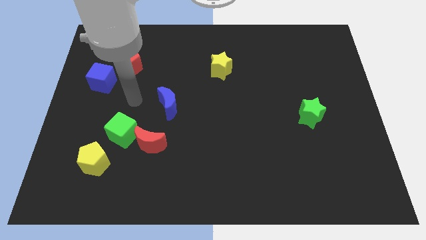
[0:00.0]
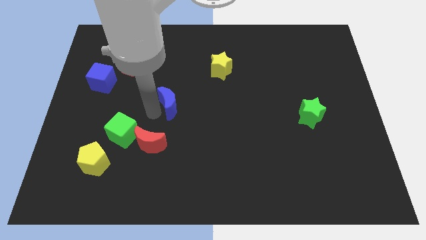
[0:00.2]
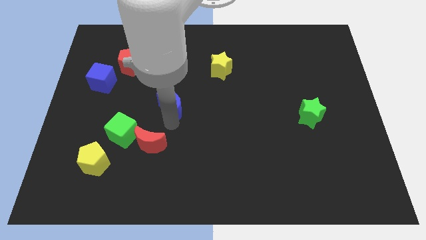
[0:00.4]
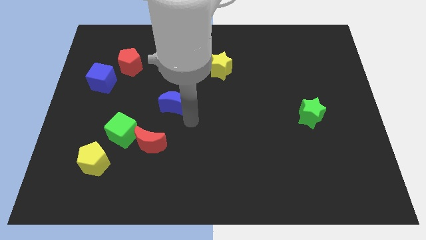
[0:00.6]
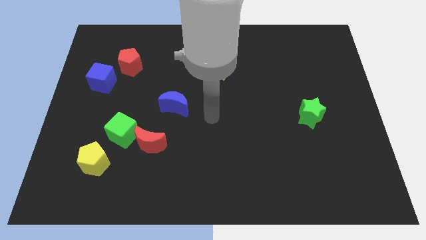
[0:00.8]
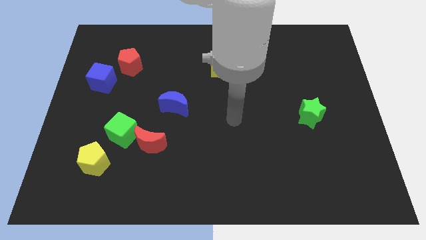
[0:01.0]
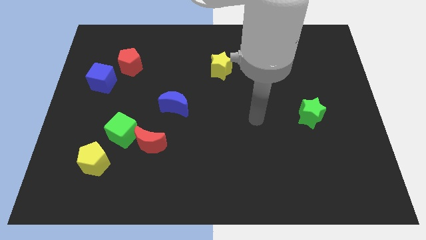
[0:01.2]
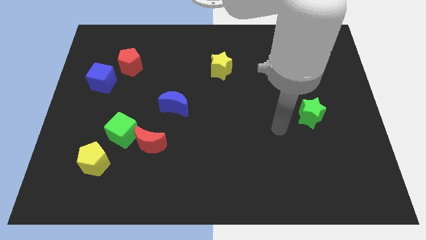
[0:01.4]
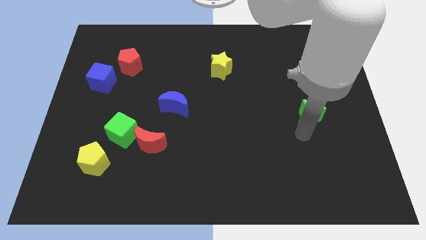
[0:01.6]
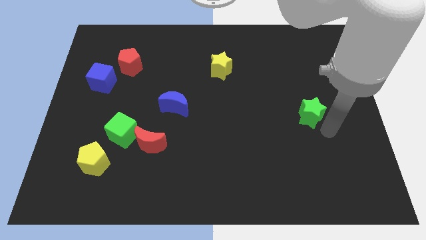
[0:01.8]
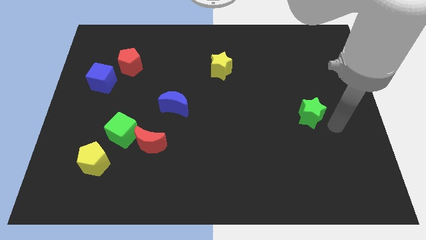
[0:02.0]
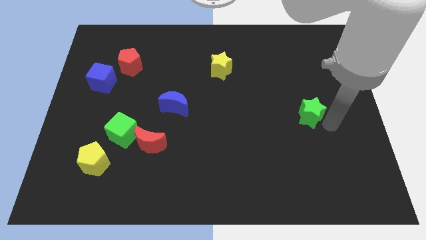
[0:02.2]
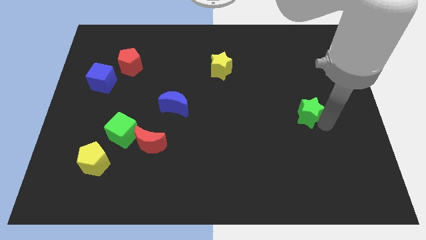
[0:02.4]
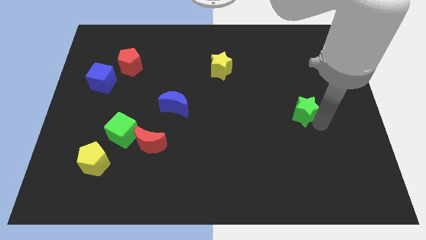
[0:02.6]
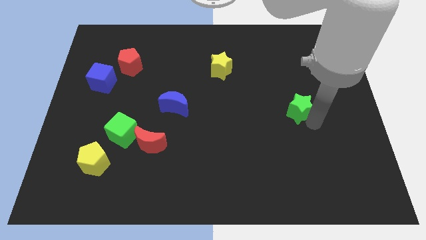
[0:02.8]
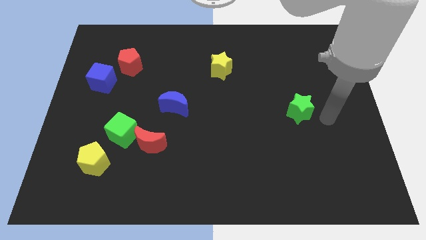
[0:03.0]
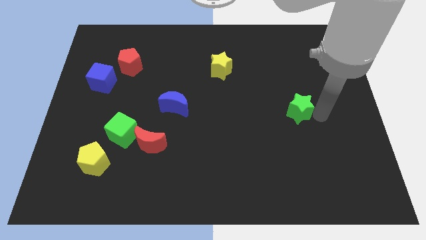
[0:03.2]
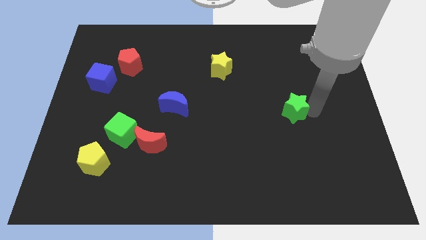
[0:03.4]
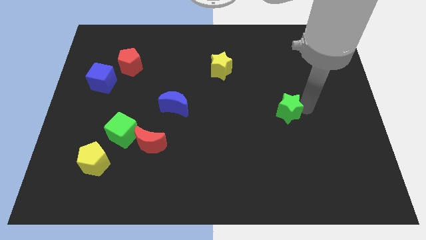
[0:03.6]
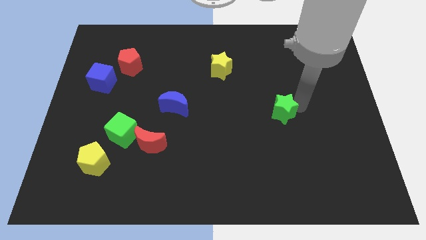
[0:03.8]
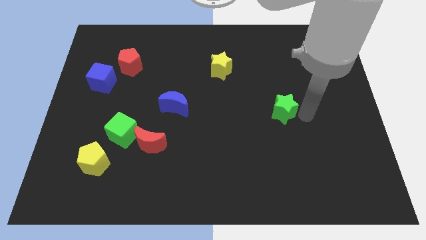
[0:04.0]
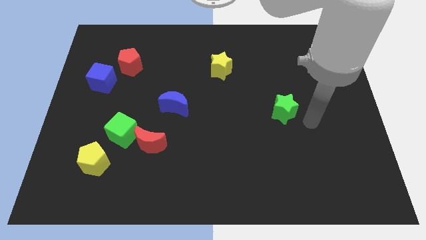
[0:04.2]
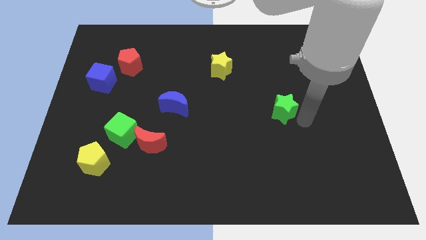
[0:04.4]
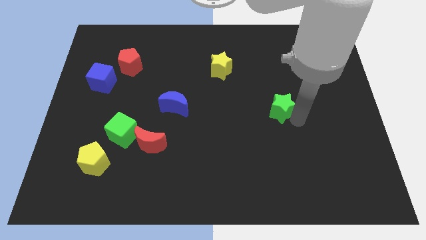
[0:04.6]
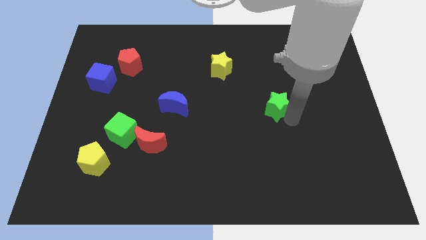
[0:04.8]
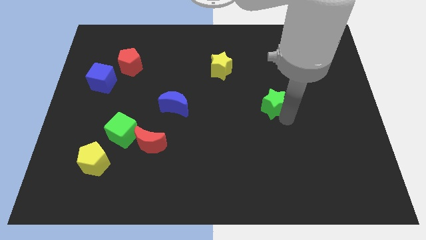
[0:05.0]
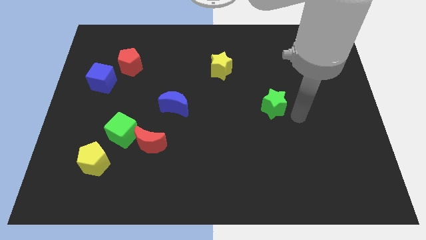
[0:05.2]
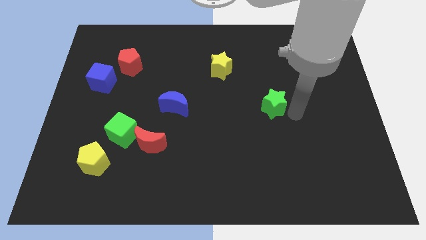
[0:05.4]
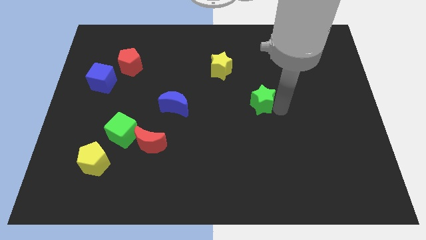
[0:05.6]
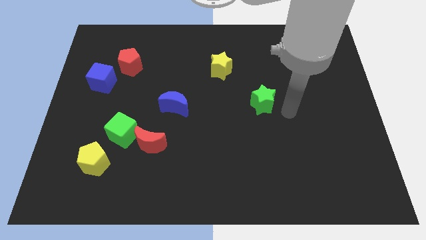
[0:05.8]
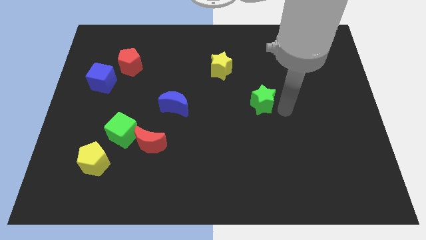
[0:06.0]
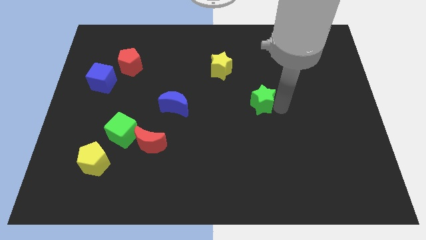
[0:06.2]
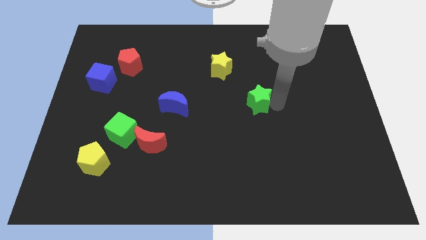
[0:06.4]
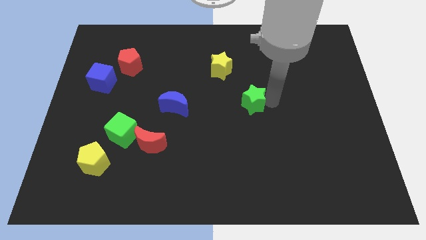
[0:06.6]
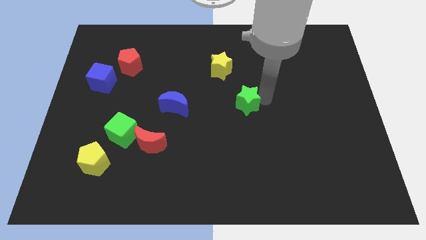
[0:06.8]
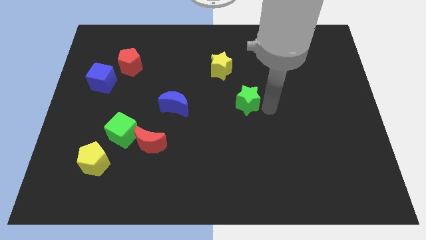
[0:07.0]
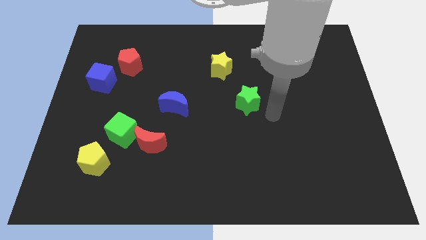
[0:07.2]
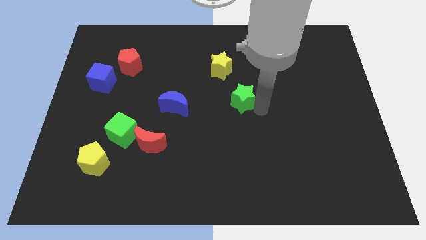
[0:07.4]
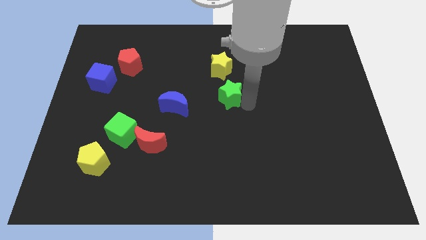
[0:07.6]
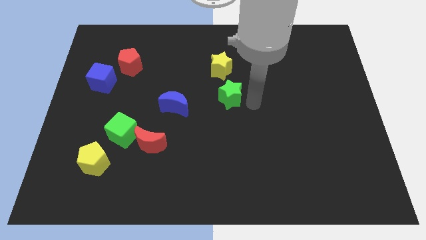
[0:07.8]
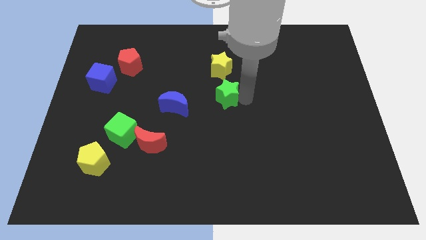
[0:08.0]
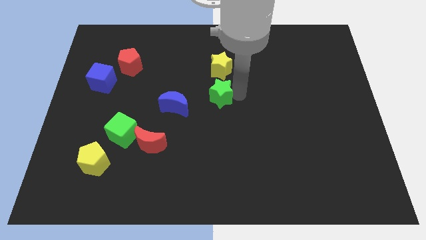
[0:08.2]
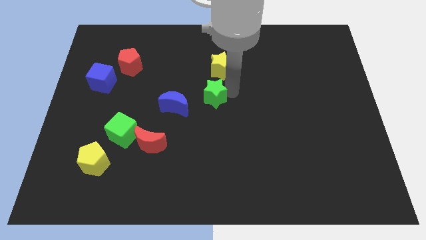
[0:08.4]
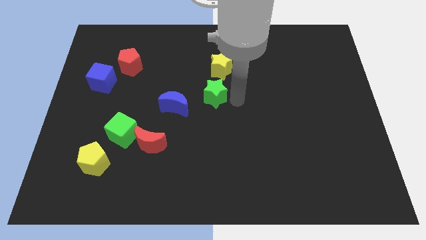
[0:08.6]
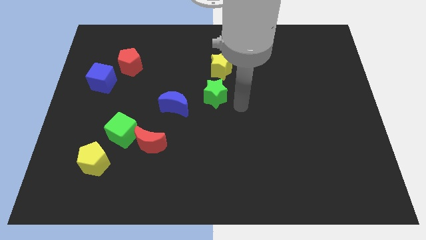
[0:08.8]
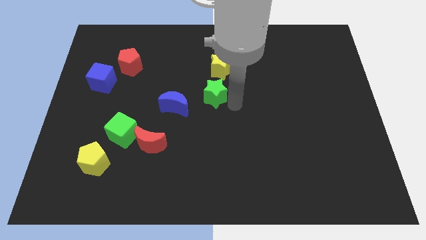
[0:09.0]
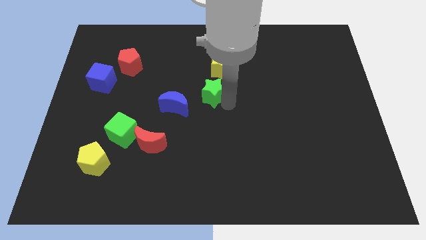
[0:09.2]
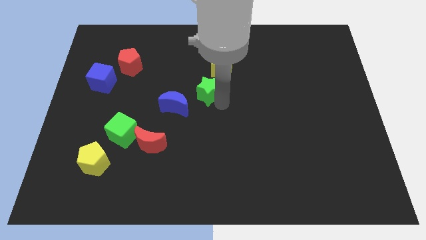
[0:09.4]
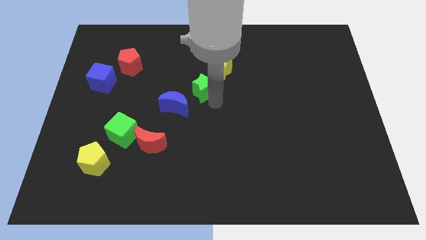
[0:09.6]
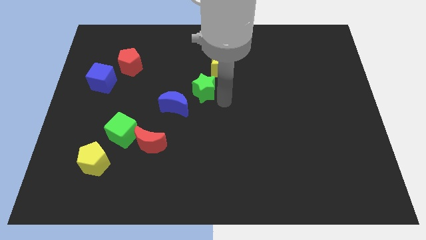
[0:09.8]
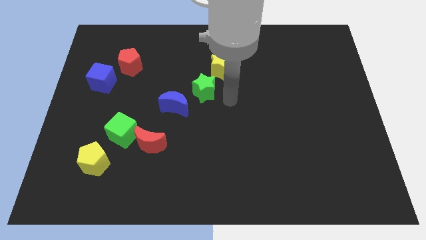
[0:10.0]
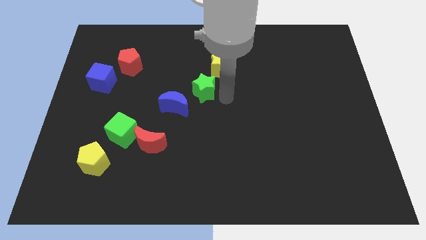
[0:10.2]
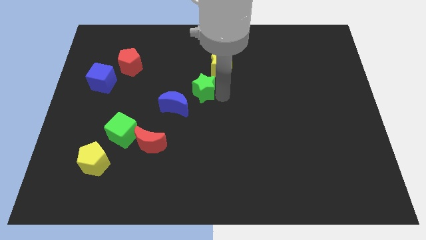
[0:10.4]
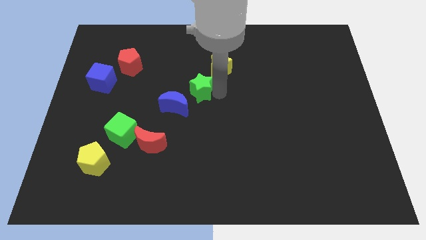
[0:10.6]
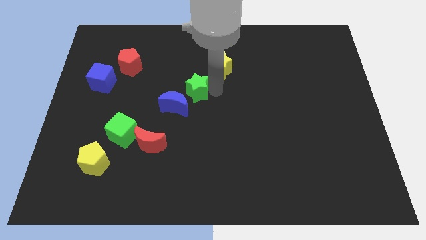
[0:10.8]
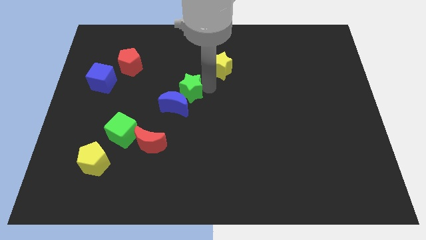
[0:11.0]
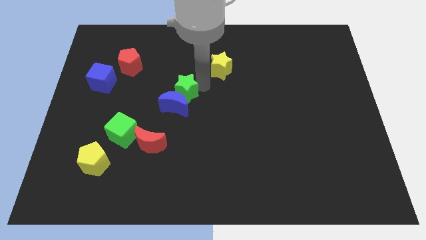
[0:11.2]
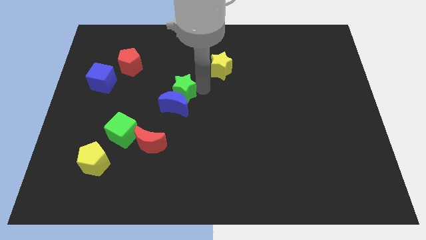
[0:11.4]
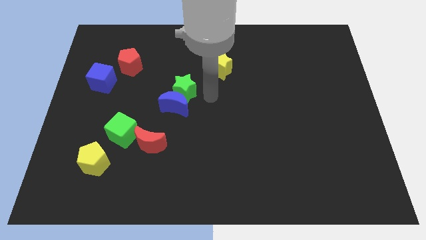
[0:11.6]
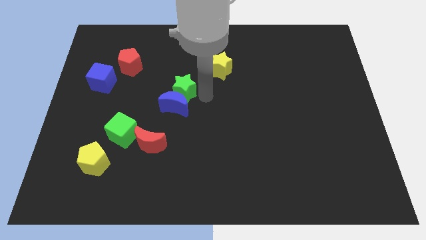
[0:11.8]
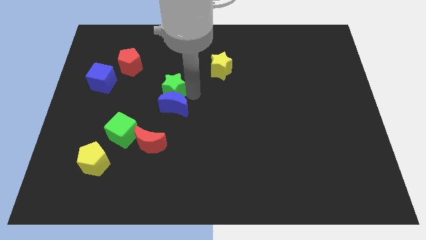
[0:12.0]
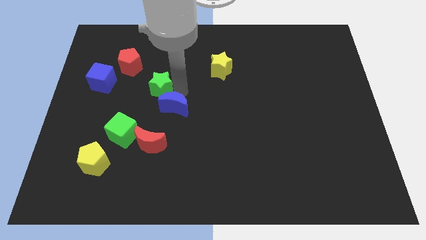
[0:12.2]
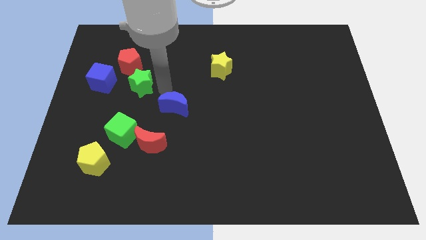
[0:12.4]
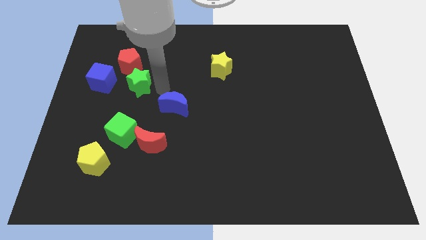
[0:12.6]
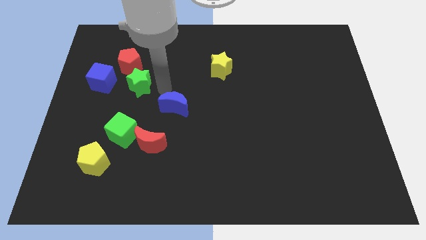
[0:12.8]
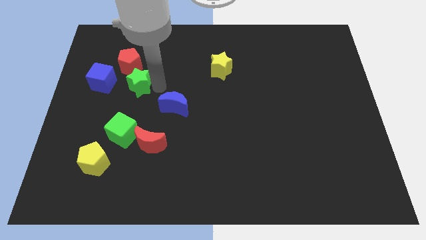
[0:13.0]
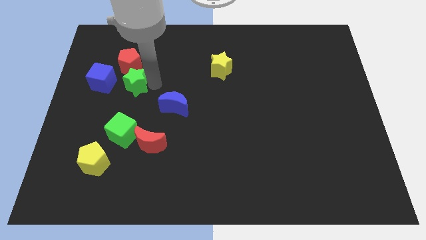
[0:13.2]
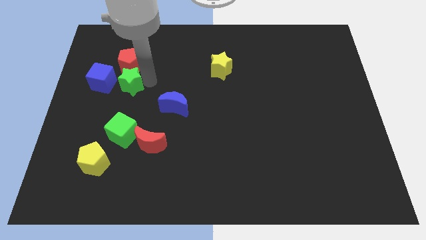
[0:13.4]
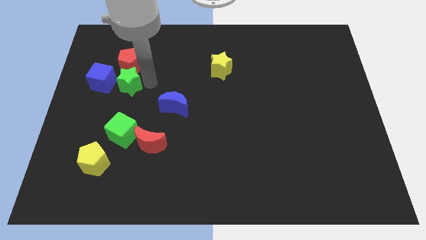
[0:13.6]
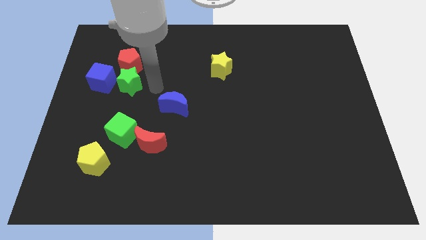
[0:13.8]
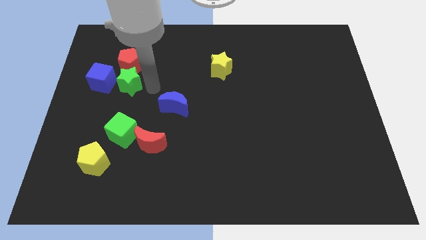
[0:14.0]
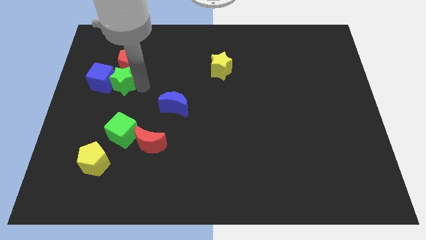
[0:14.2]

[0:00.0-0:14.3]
push the green star towards the blue cube
